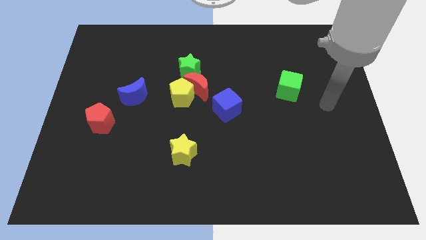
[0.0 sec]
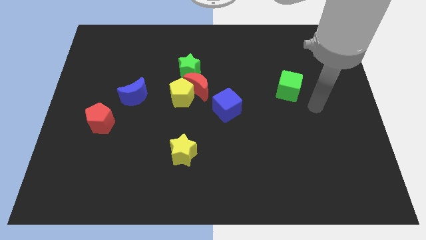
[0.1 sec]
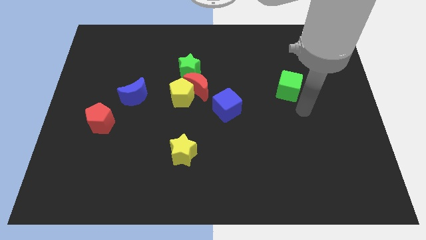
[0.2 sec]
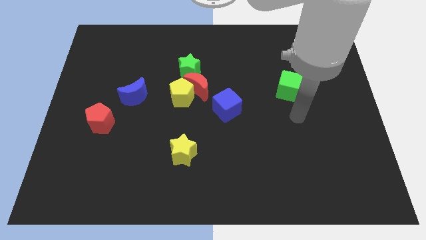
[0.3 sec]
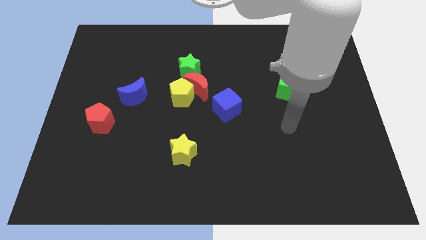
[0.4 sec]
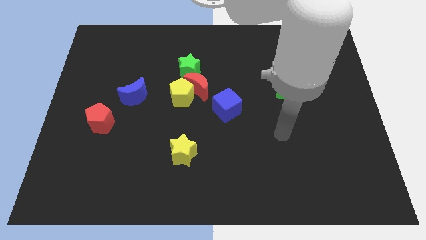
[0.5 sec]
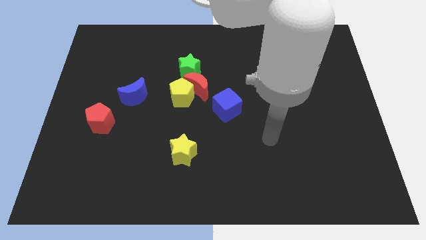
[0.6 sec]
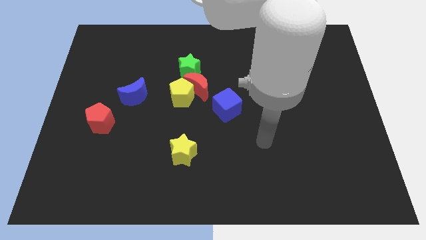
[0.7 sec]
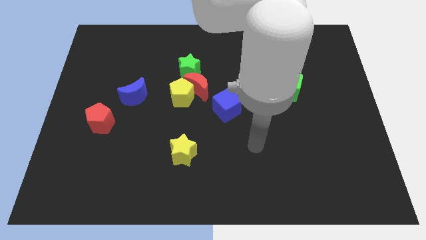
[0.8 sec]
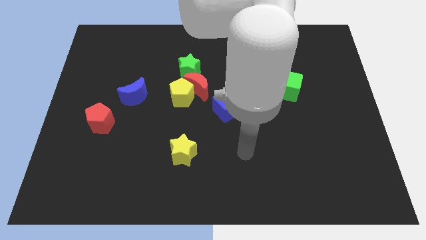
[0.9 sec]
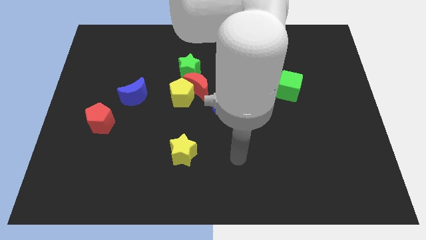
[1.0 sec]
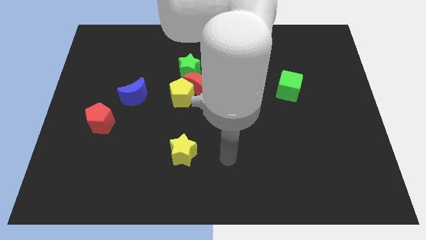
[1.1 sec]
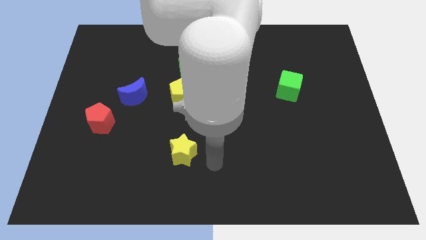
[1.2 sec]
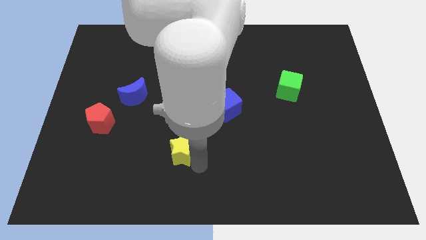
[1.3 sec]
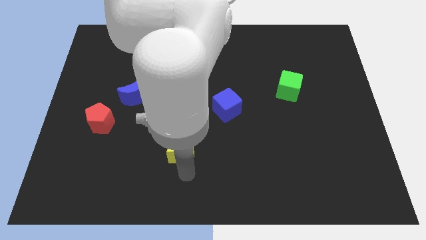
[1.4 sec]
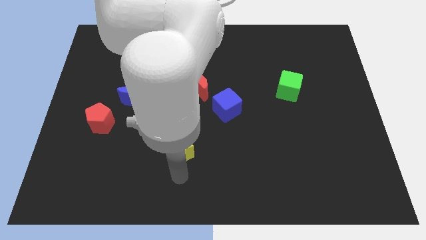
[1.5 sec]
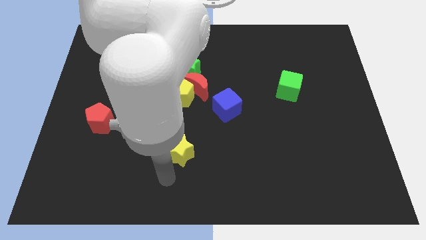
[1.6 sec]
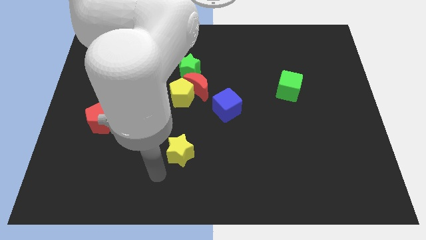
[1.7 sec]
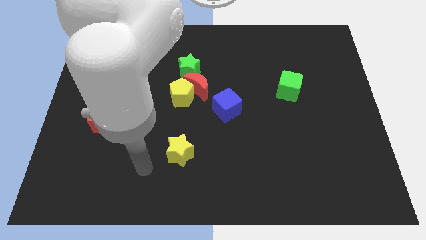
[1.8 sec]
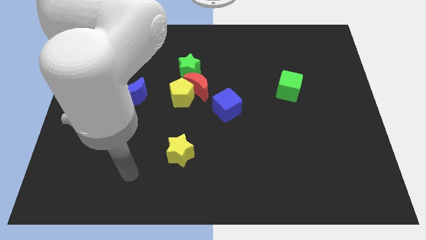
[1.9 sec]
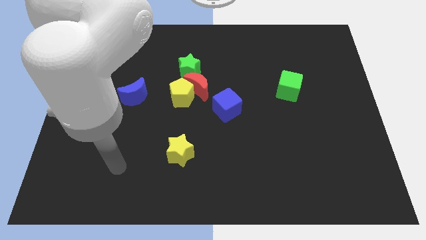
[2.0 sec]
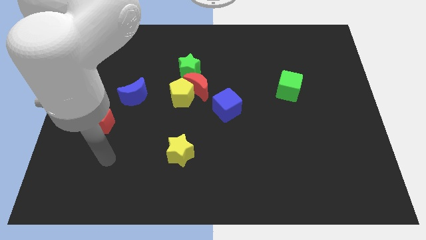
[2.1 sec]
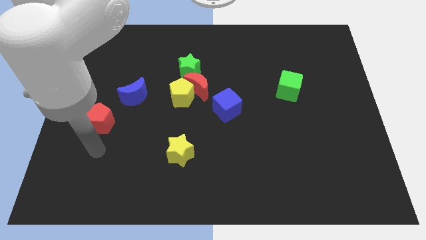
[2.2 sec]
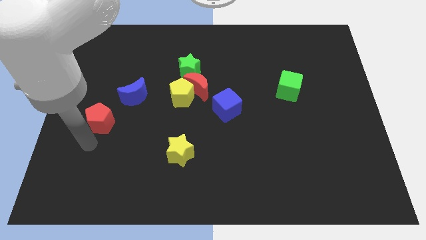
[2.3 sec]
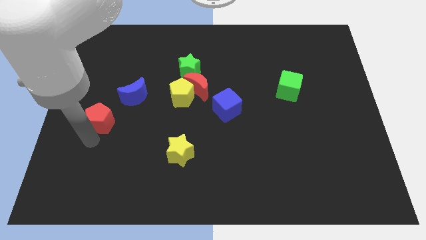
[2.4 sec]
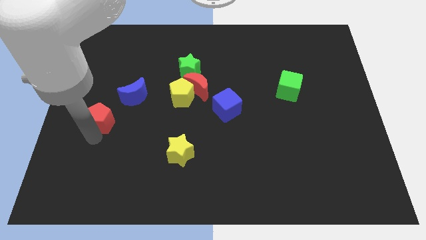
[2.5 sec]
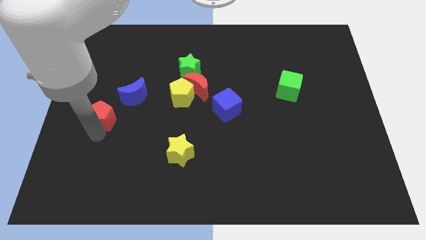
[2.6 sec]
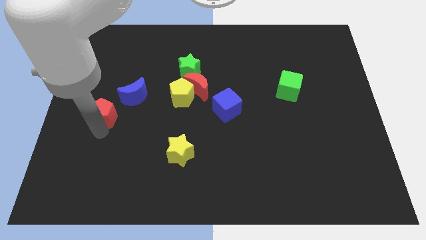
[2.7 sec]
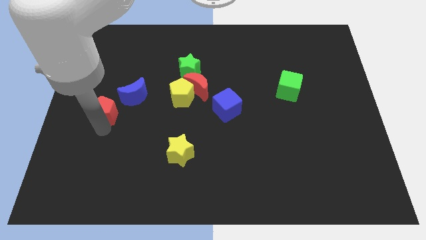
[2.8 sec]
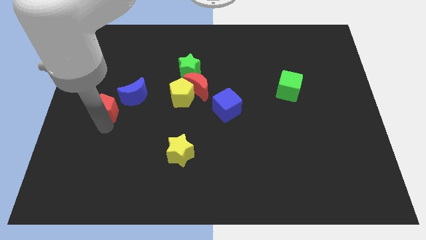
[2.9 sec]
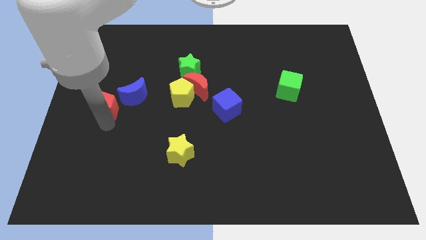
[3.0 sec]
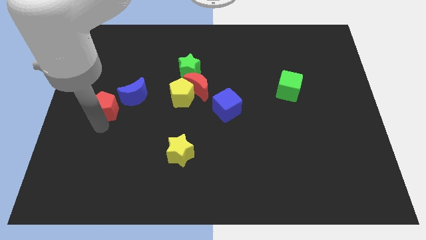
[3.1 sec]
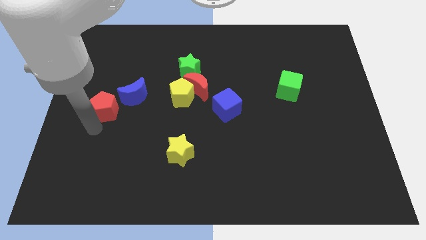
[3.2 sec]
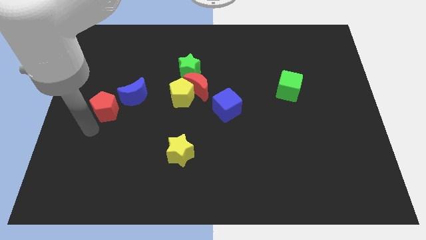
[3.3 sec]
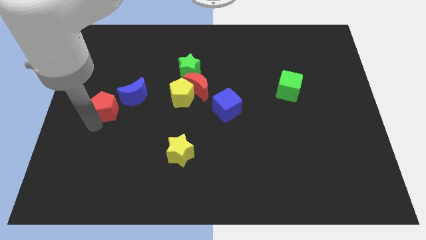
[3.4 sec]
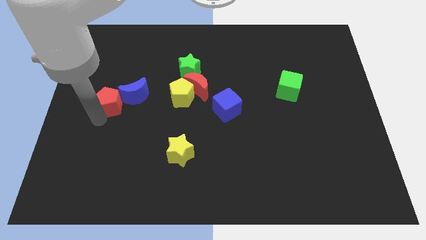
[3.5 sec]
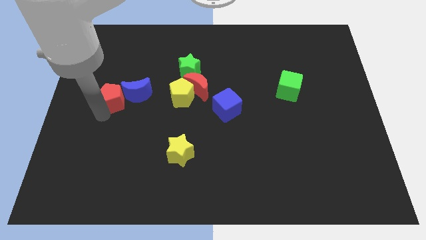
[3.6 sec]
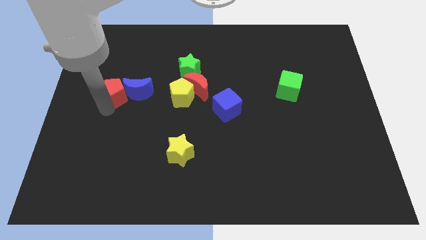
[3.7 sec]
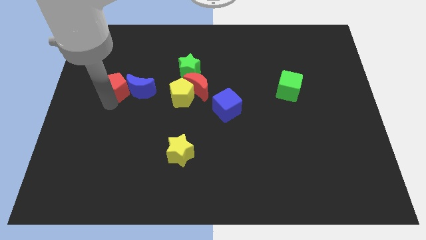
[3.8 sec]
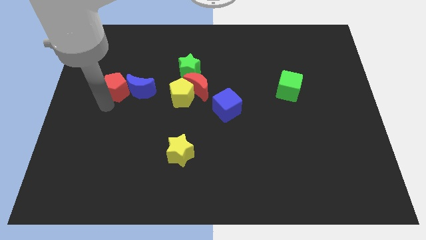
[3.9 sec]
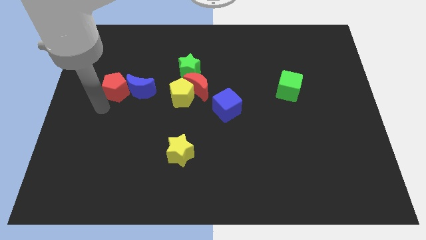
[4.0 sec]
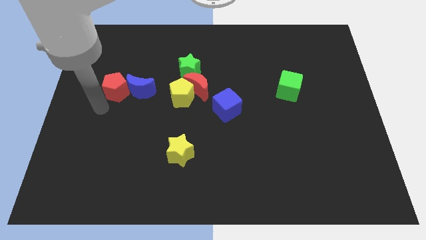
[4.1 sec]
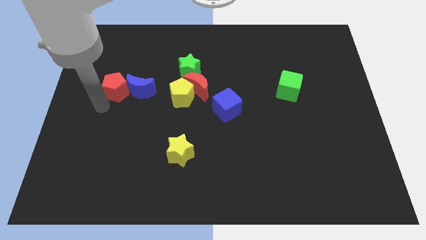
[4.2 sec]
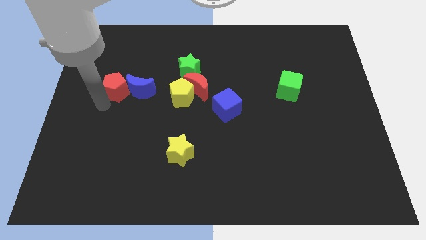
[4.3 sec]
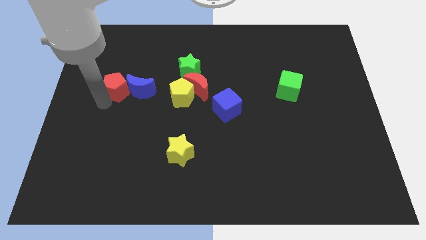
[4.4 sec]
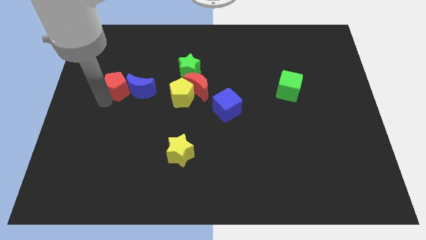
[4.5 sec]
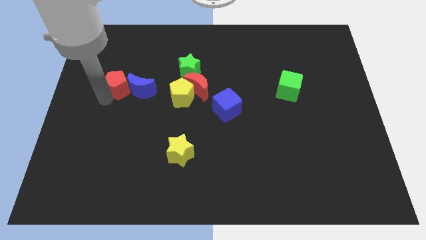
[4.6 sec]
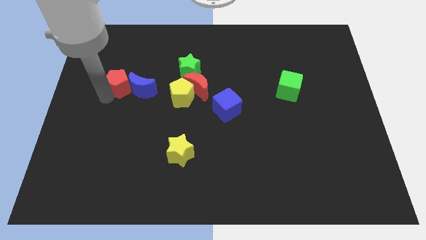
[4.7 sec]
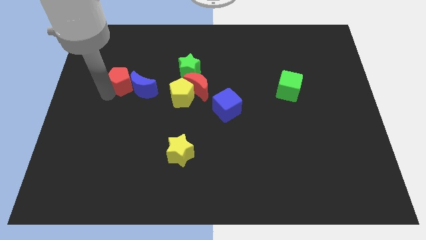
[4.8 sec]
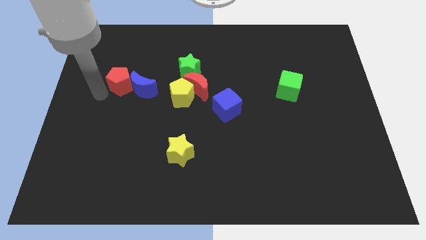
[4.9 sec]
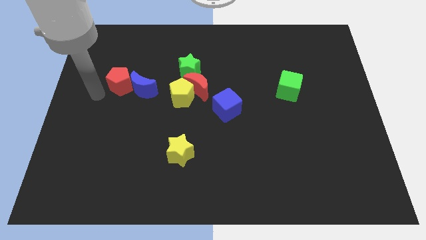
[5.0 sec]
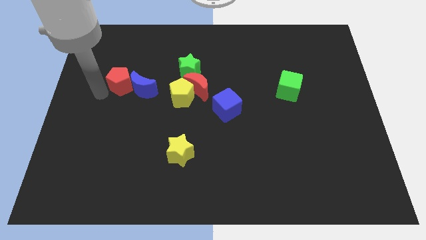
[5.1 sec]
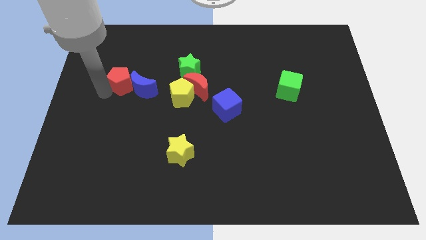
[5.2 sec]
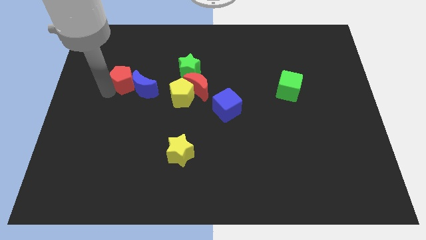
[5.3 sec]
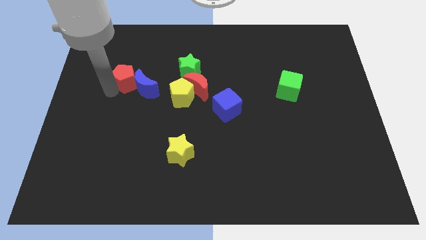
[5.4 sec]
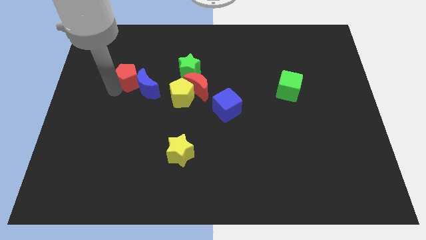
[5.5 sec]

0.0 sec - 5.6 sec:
push the red pentagon to the left side of the green star

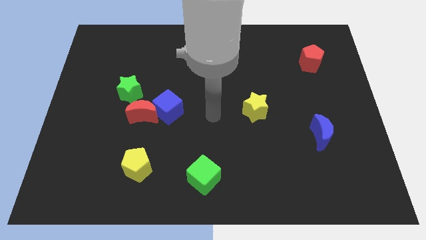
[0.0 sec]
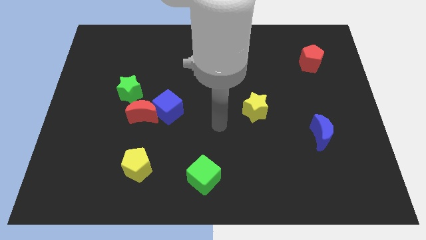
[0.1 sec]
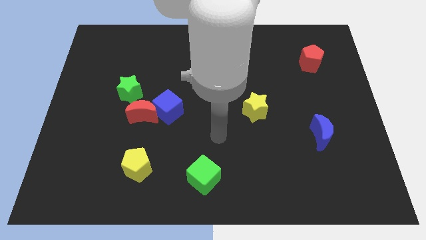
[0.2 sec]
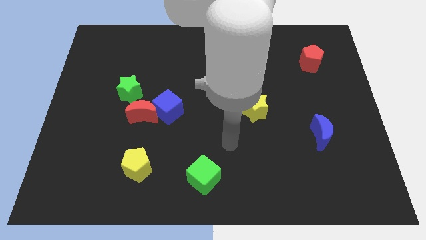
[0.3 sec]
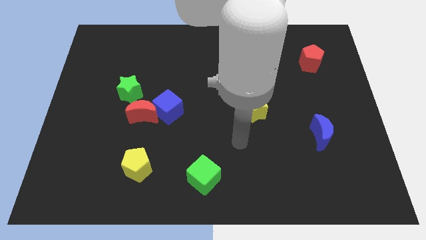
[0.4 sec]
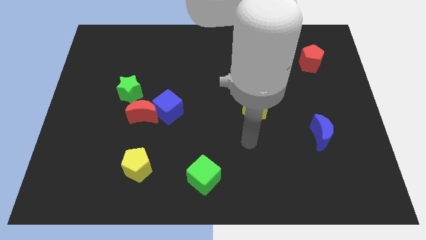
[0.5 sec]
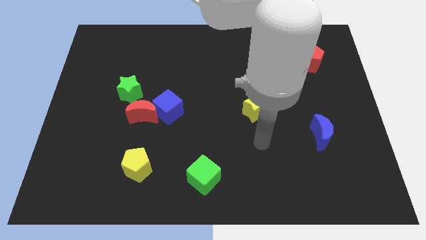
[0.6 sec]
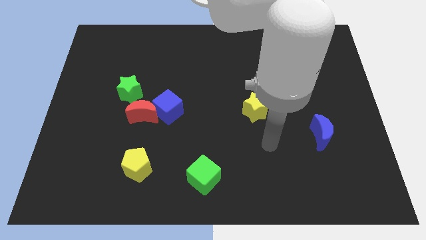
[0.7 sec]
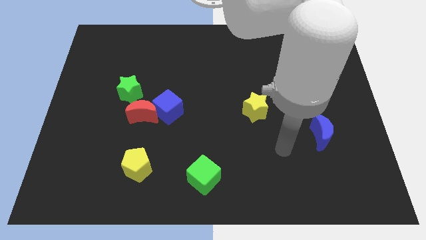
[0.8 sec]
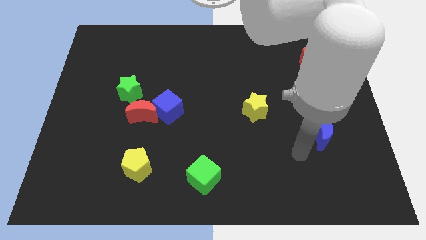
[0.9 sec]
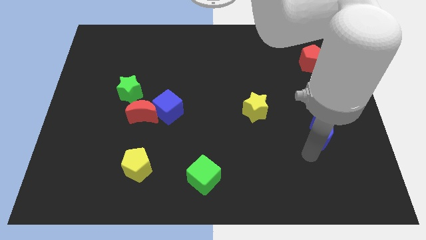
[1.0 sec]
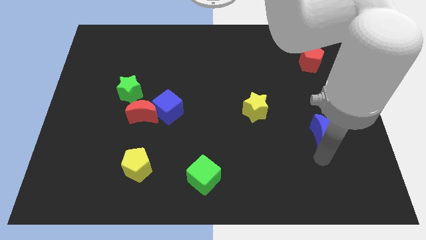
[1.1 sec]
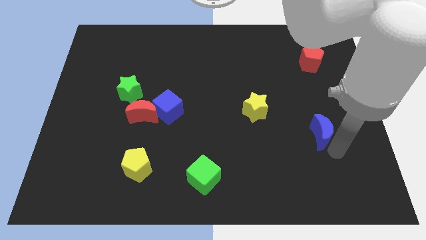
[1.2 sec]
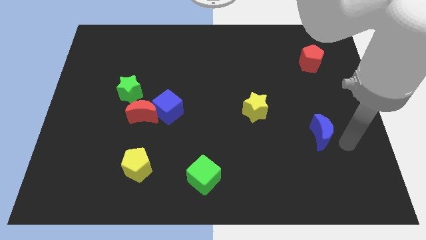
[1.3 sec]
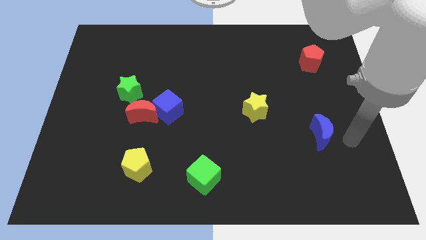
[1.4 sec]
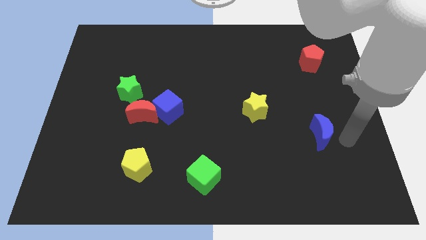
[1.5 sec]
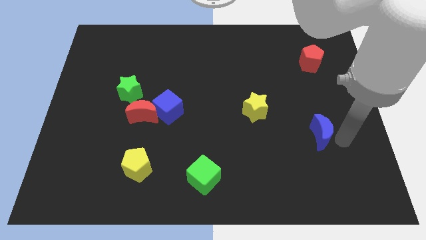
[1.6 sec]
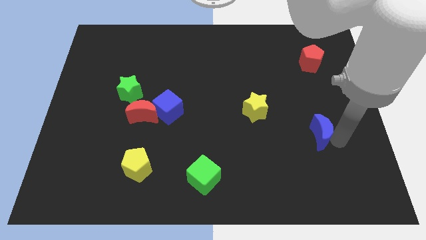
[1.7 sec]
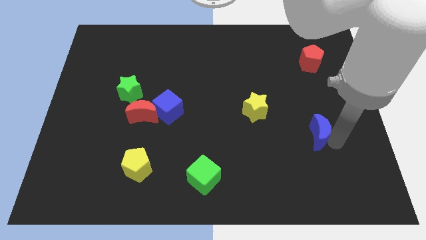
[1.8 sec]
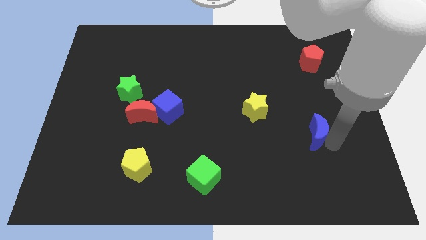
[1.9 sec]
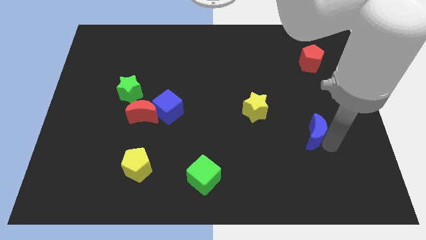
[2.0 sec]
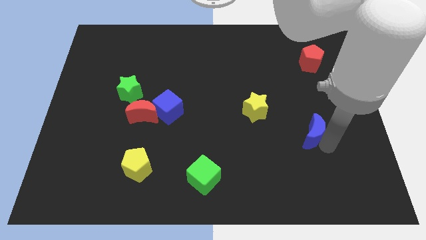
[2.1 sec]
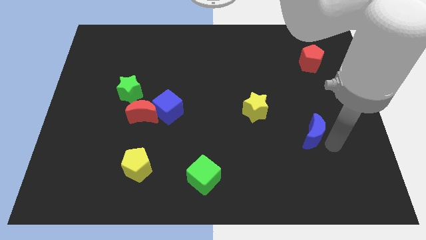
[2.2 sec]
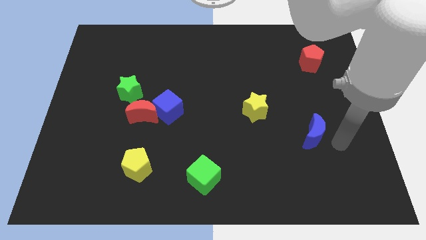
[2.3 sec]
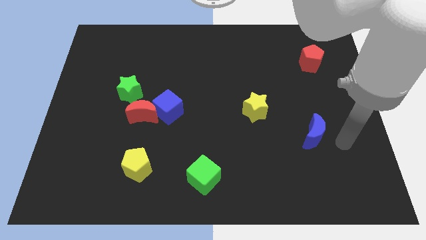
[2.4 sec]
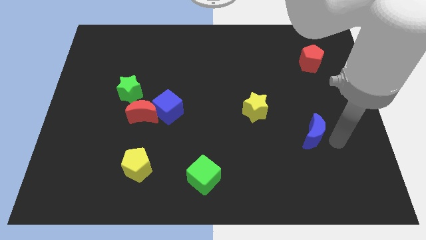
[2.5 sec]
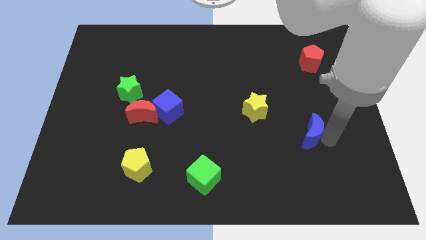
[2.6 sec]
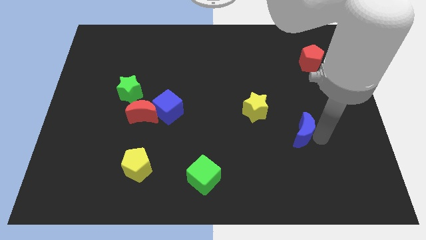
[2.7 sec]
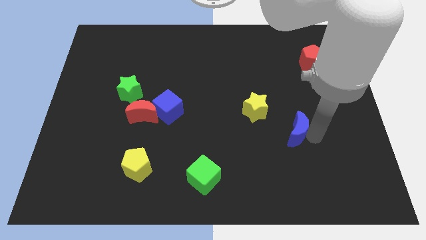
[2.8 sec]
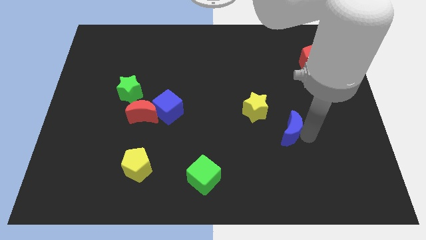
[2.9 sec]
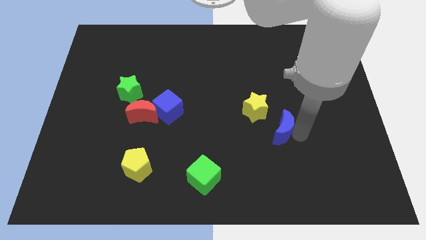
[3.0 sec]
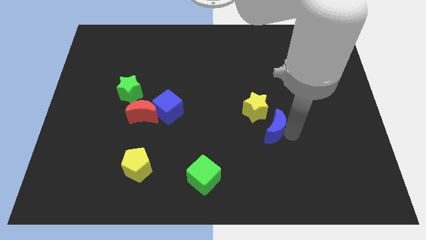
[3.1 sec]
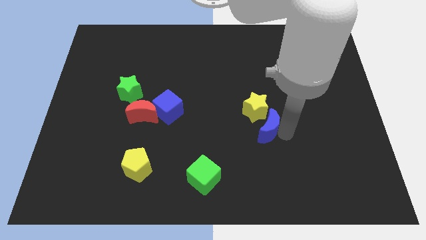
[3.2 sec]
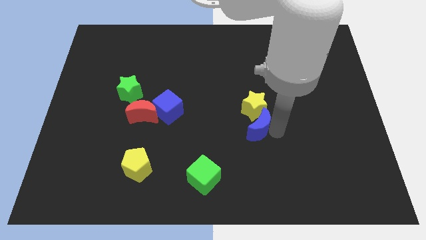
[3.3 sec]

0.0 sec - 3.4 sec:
push the blue moon to the bottom left side of the yellow star
